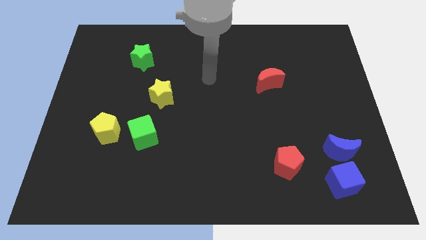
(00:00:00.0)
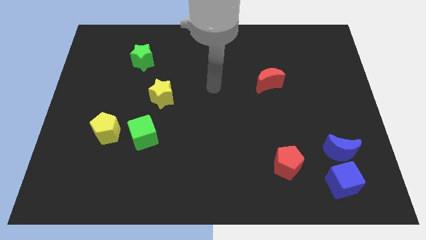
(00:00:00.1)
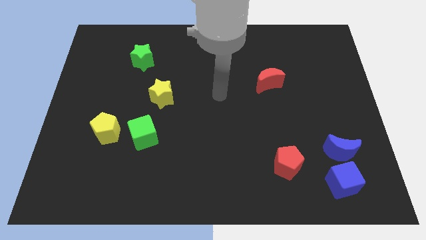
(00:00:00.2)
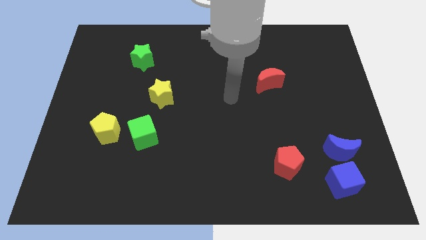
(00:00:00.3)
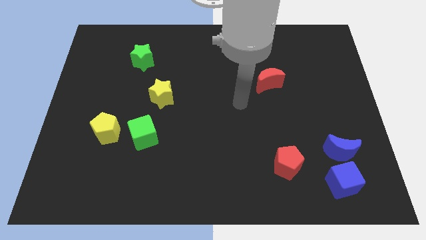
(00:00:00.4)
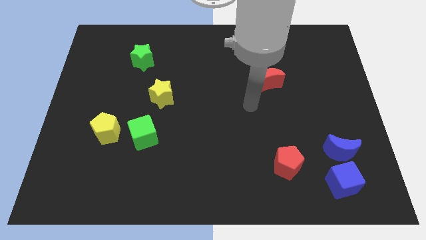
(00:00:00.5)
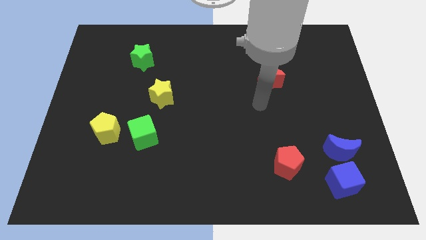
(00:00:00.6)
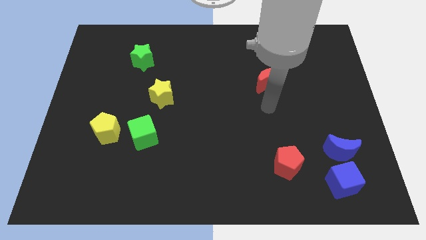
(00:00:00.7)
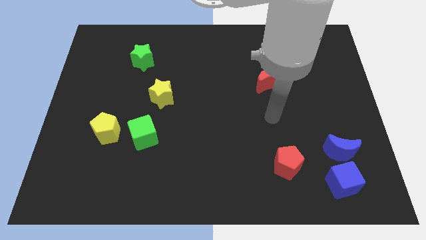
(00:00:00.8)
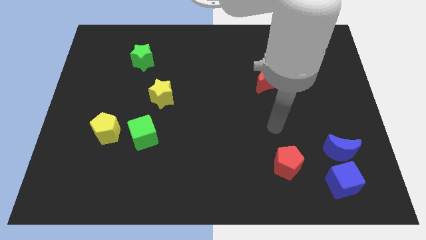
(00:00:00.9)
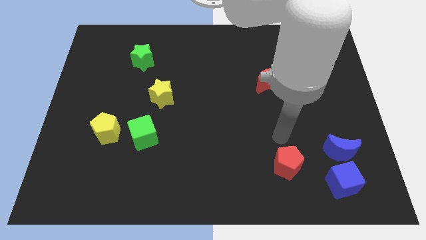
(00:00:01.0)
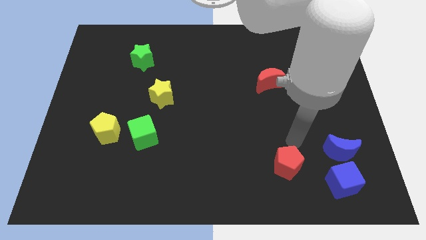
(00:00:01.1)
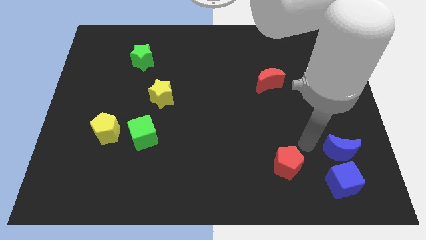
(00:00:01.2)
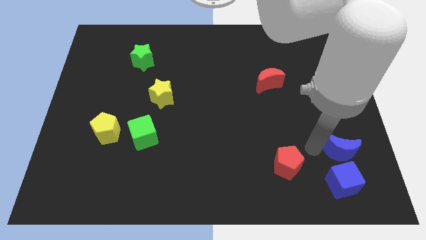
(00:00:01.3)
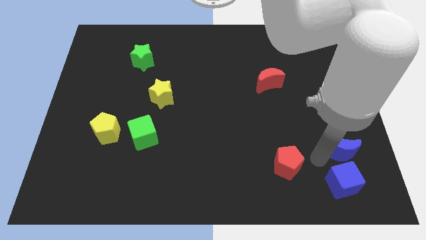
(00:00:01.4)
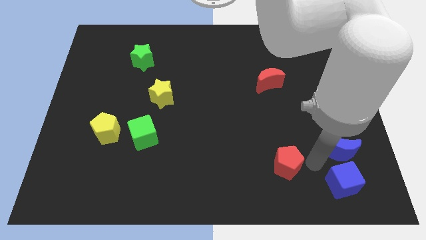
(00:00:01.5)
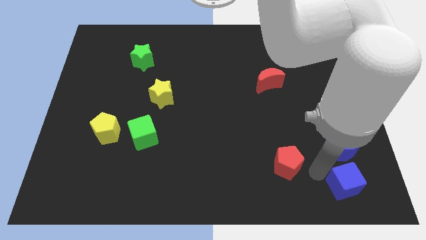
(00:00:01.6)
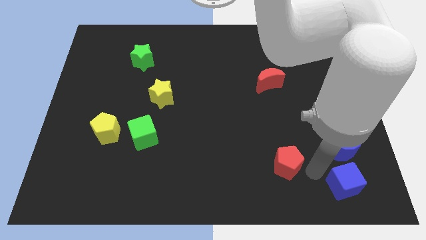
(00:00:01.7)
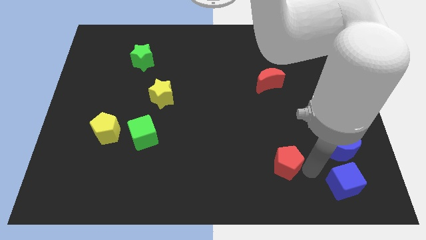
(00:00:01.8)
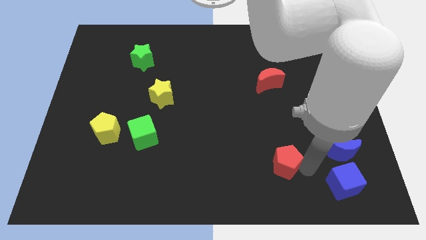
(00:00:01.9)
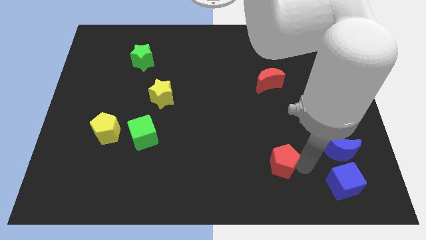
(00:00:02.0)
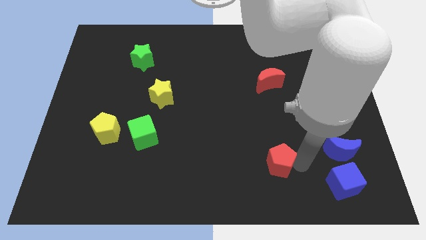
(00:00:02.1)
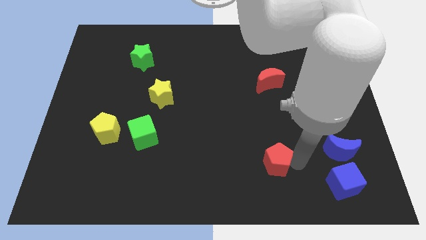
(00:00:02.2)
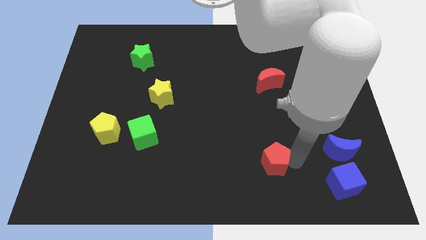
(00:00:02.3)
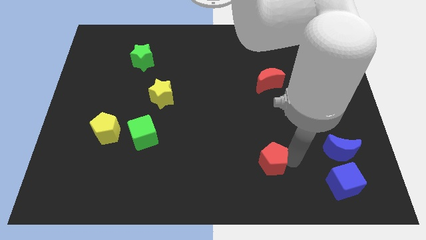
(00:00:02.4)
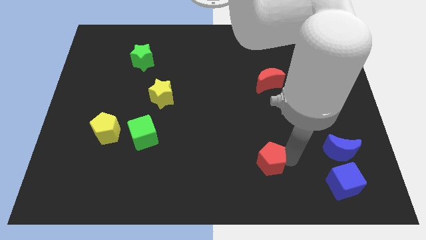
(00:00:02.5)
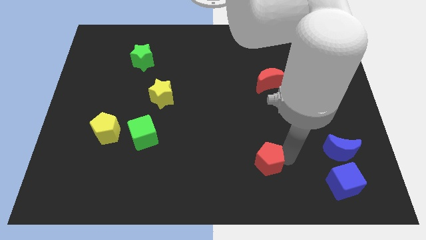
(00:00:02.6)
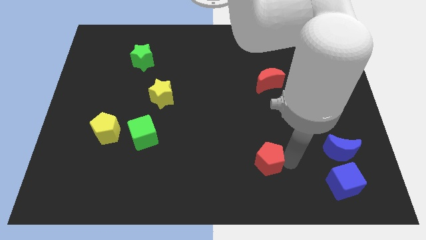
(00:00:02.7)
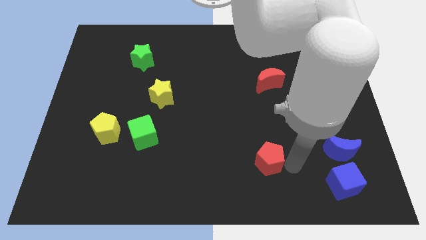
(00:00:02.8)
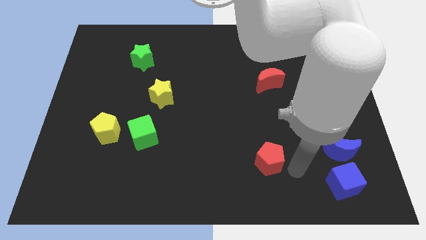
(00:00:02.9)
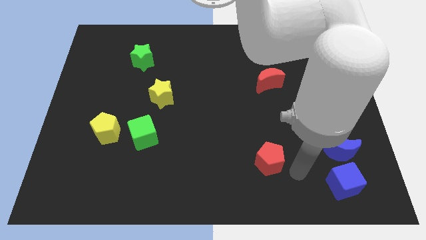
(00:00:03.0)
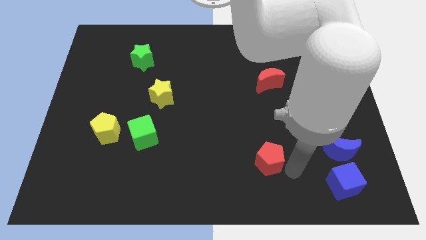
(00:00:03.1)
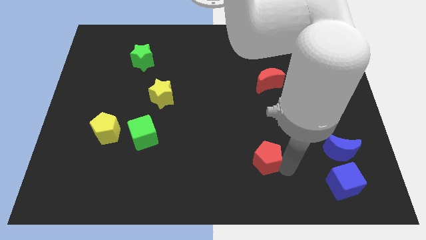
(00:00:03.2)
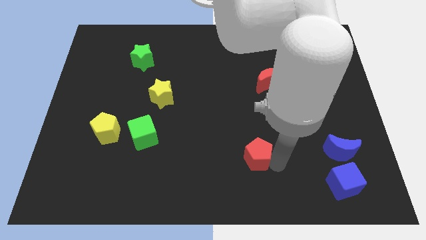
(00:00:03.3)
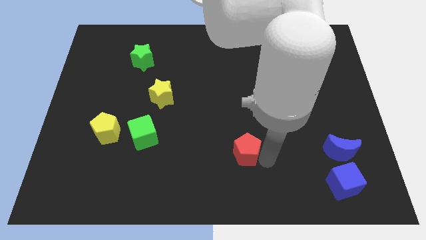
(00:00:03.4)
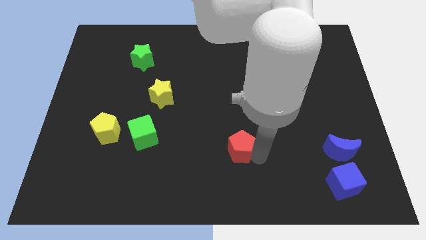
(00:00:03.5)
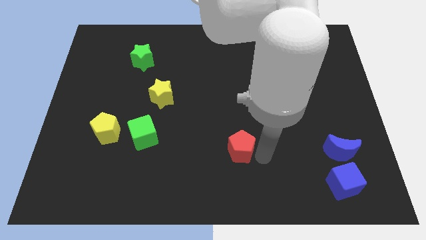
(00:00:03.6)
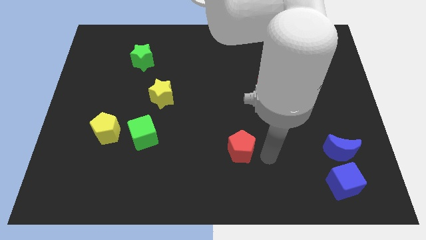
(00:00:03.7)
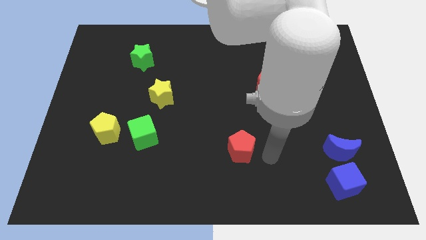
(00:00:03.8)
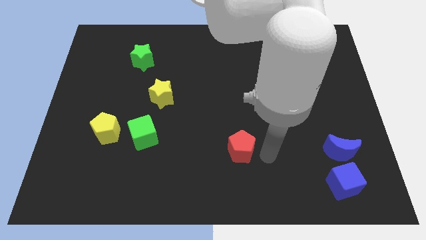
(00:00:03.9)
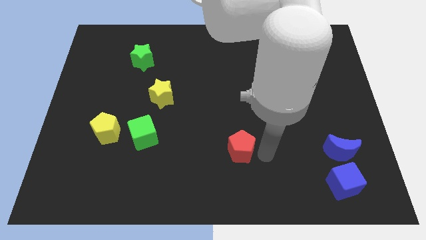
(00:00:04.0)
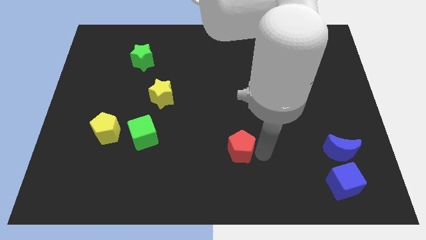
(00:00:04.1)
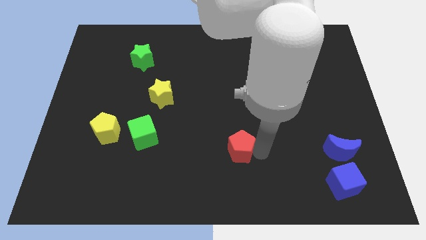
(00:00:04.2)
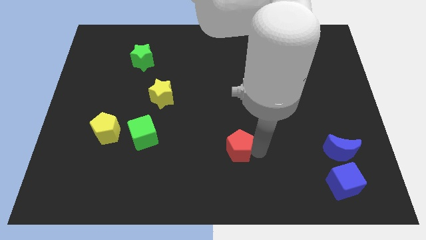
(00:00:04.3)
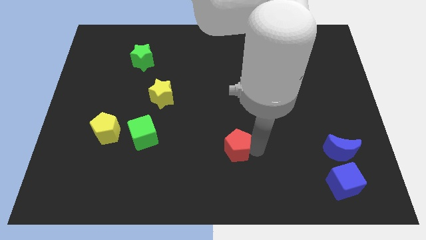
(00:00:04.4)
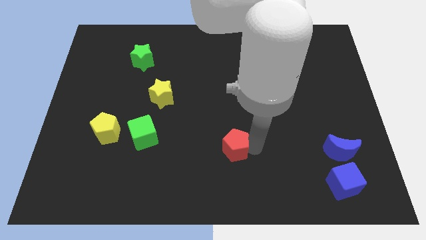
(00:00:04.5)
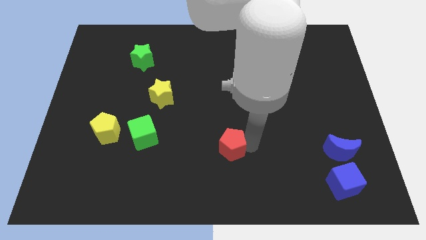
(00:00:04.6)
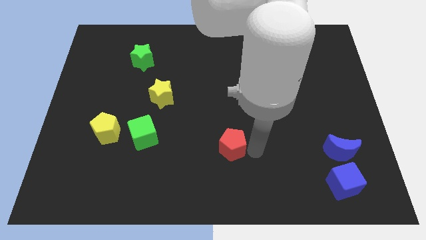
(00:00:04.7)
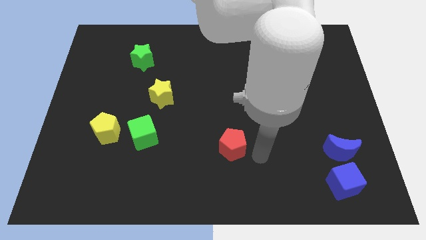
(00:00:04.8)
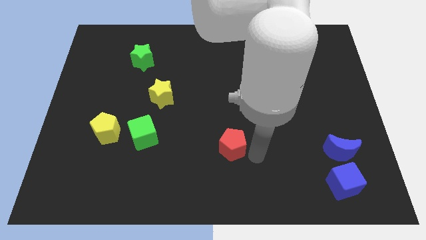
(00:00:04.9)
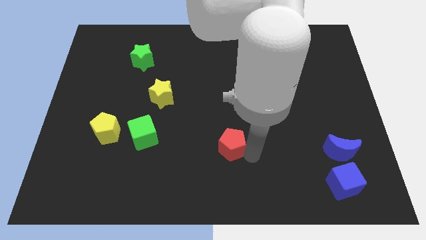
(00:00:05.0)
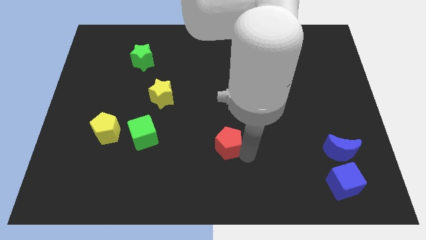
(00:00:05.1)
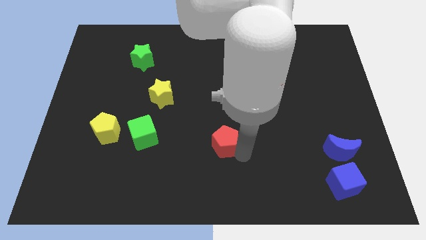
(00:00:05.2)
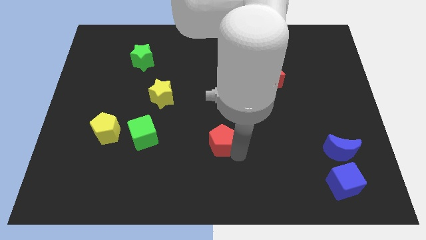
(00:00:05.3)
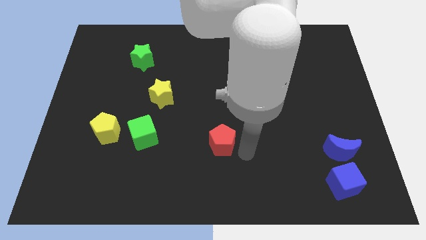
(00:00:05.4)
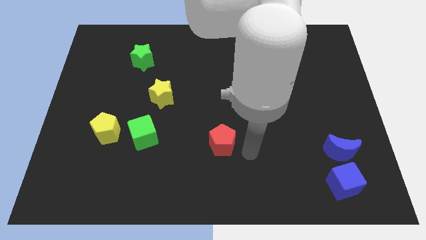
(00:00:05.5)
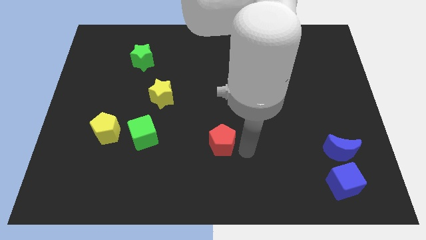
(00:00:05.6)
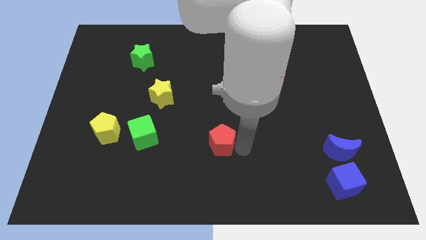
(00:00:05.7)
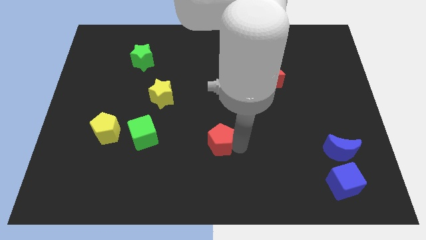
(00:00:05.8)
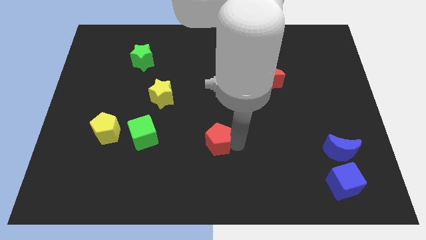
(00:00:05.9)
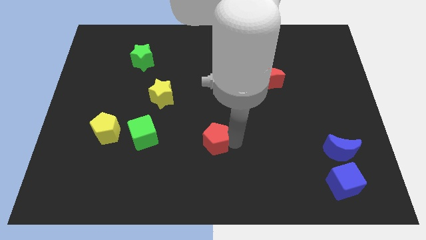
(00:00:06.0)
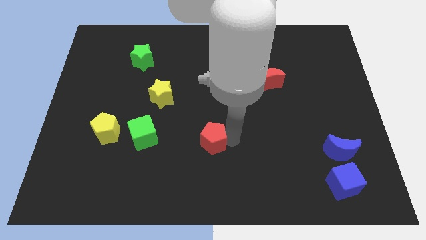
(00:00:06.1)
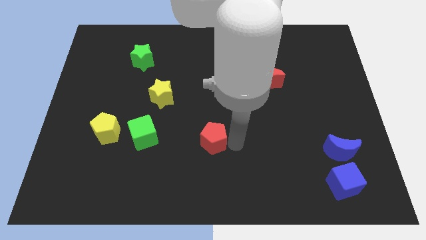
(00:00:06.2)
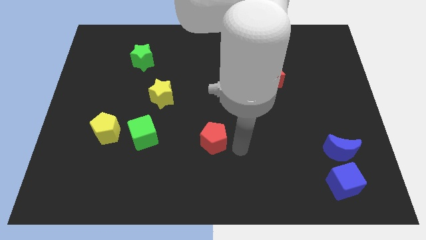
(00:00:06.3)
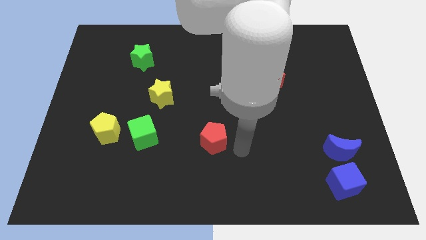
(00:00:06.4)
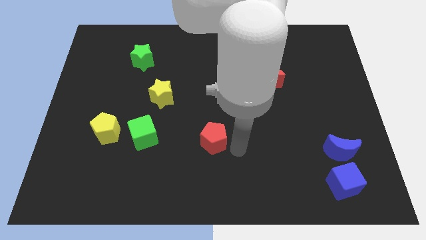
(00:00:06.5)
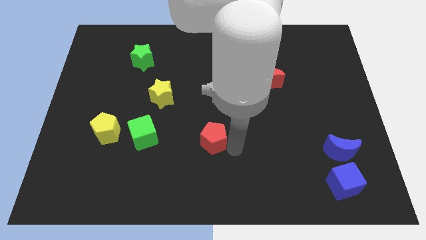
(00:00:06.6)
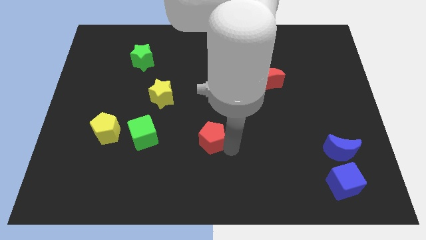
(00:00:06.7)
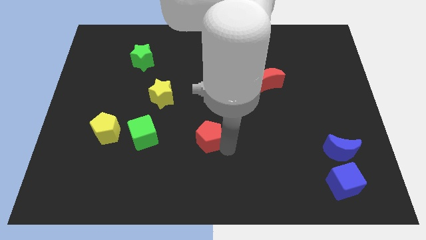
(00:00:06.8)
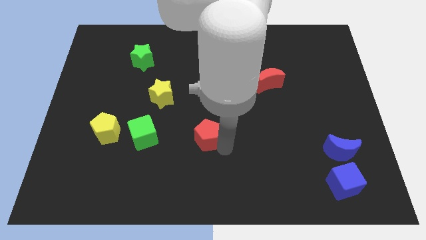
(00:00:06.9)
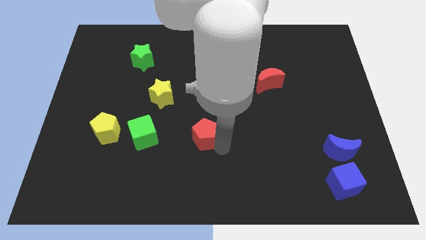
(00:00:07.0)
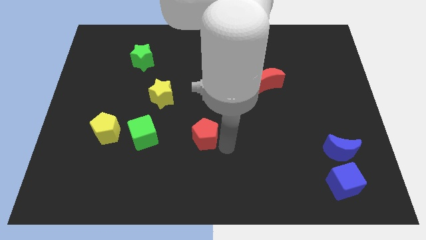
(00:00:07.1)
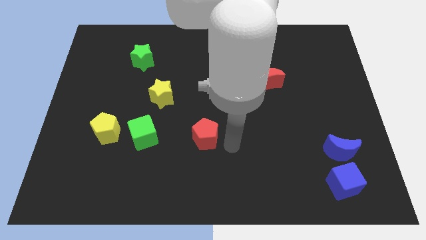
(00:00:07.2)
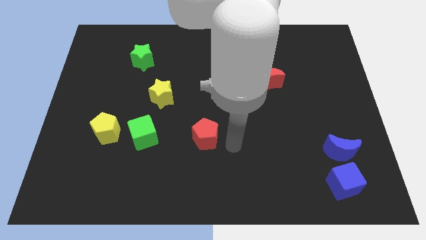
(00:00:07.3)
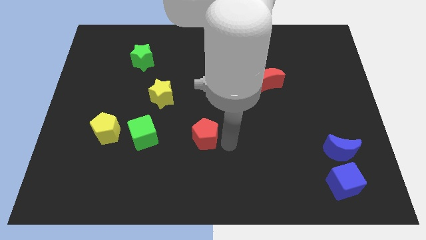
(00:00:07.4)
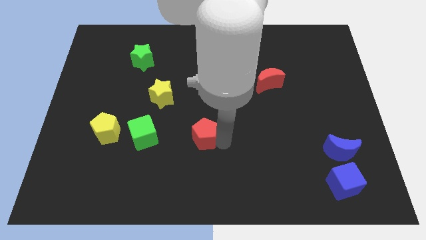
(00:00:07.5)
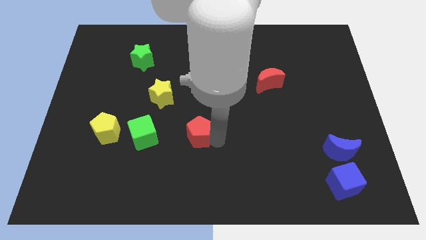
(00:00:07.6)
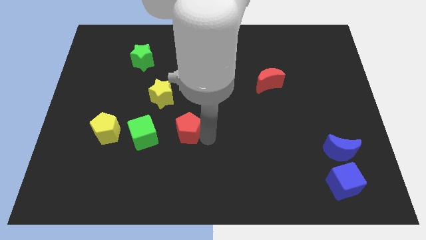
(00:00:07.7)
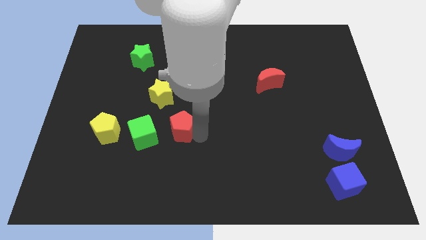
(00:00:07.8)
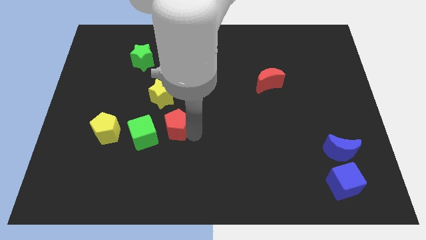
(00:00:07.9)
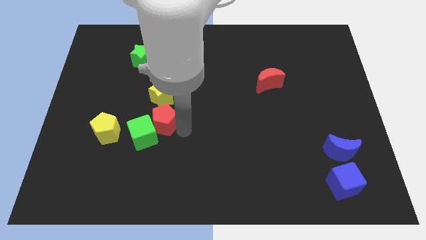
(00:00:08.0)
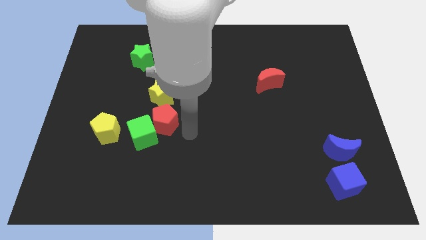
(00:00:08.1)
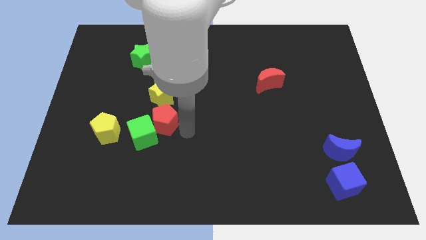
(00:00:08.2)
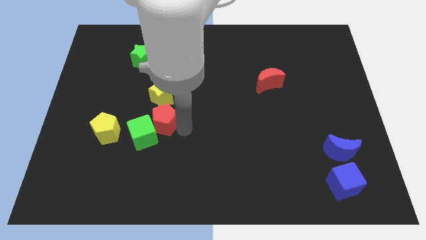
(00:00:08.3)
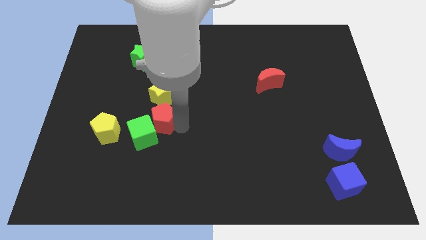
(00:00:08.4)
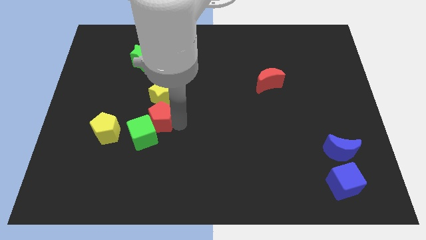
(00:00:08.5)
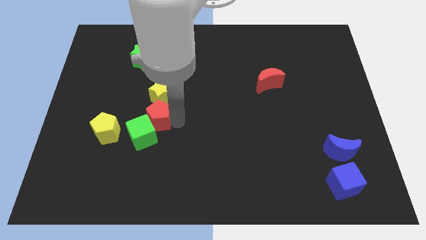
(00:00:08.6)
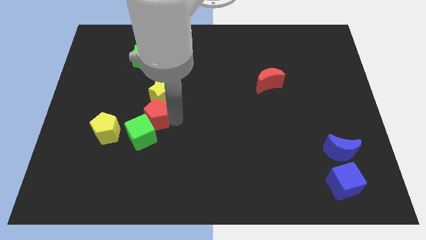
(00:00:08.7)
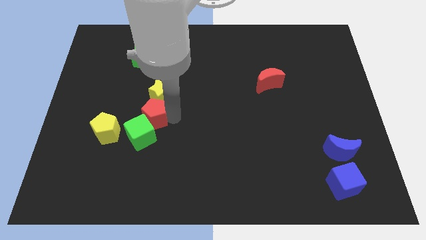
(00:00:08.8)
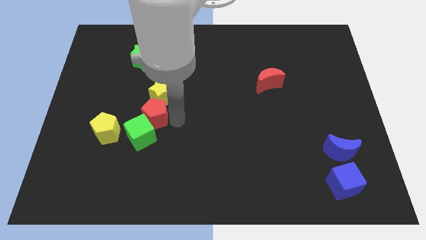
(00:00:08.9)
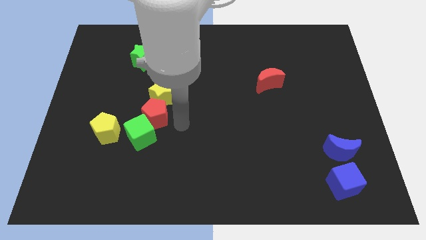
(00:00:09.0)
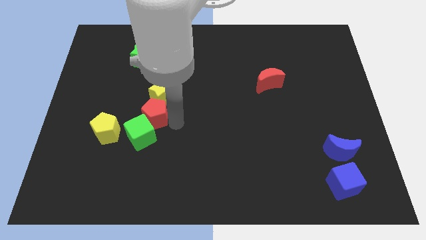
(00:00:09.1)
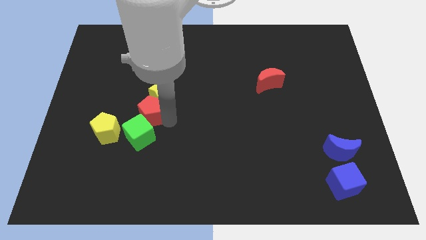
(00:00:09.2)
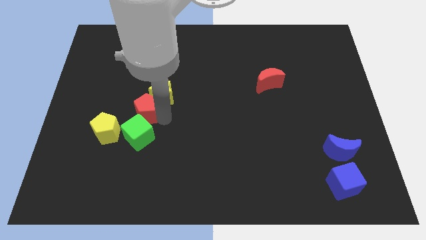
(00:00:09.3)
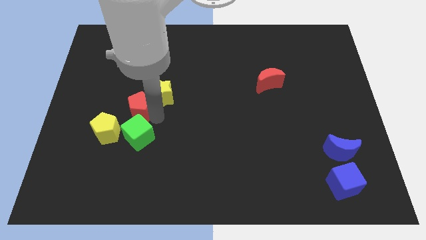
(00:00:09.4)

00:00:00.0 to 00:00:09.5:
put the red pentagon to the bottom of the green star
